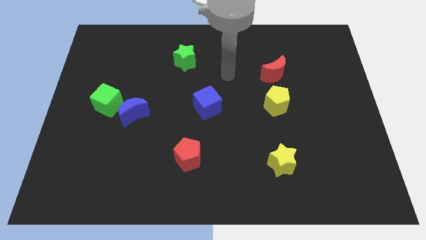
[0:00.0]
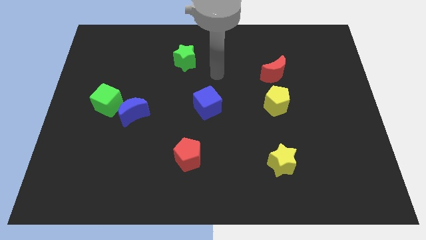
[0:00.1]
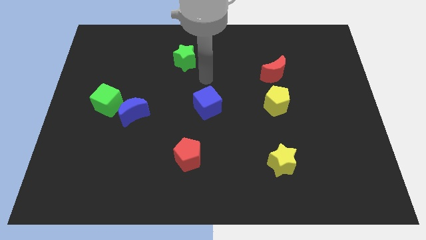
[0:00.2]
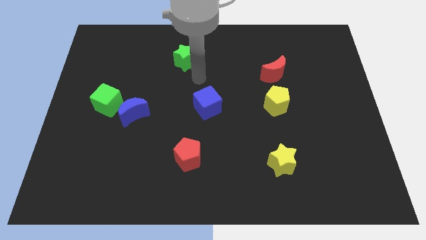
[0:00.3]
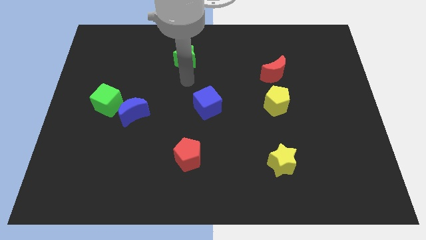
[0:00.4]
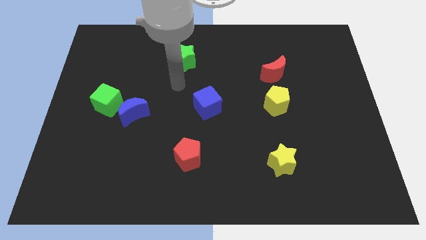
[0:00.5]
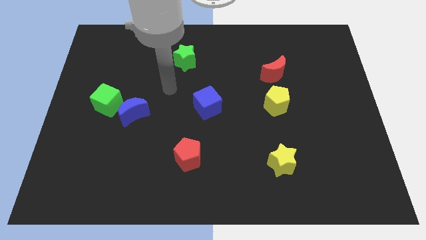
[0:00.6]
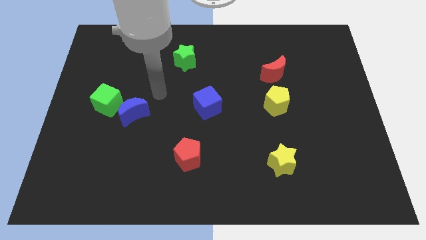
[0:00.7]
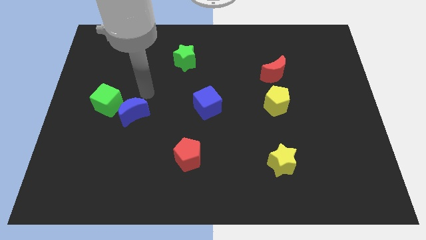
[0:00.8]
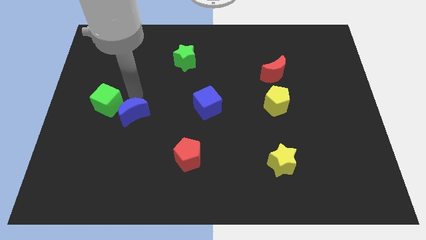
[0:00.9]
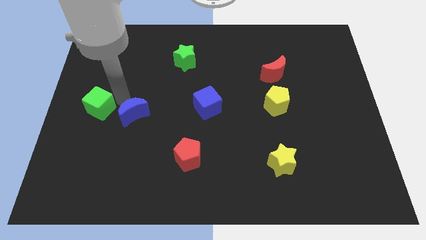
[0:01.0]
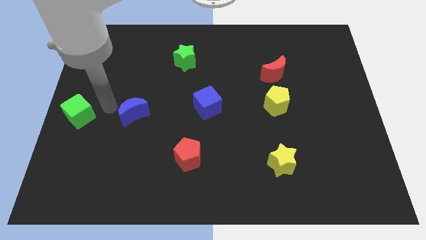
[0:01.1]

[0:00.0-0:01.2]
separate the blue moon from the green cube

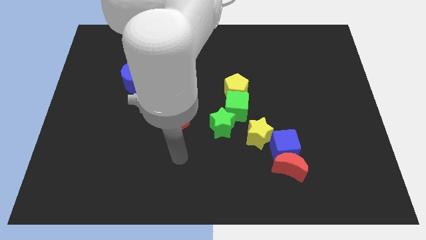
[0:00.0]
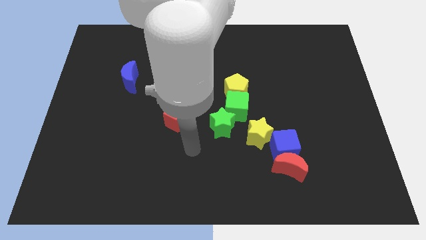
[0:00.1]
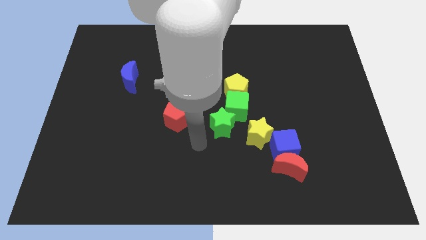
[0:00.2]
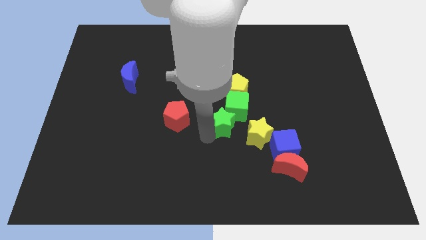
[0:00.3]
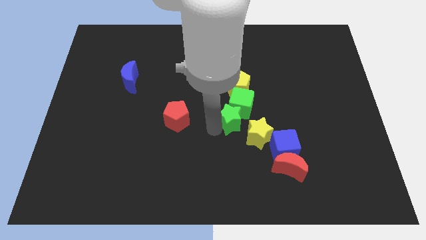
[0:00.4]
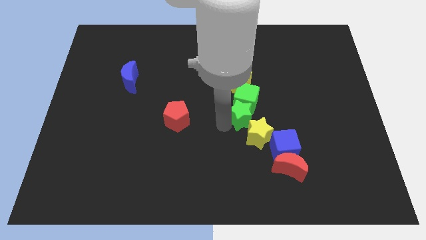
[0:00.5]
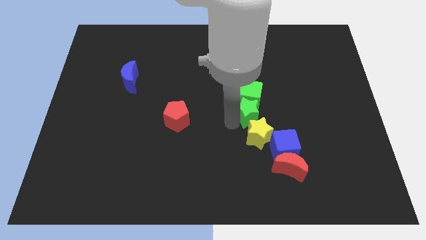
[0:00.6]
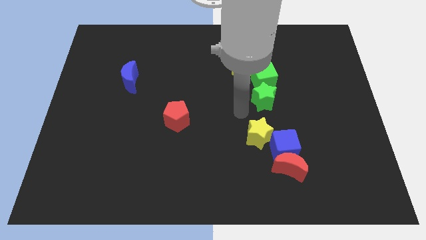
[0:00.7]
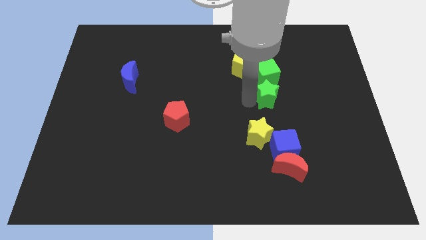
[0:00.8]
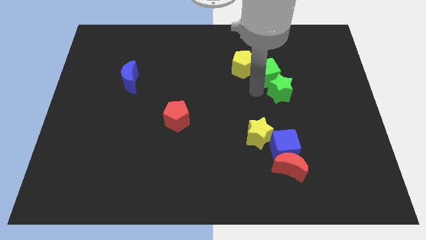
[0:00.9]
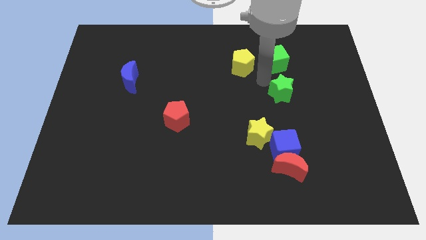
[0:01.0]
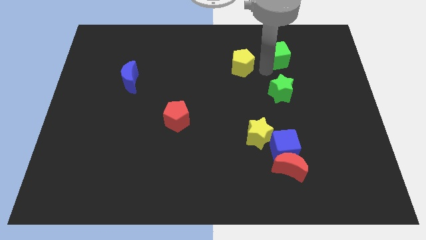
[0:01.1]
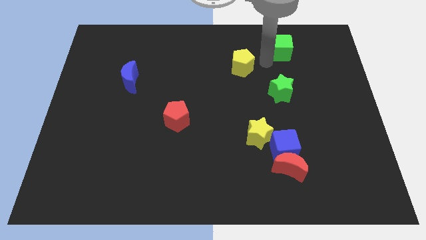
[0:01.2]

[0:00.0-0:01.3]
separate the yellow pentagon from the green cube

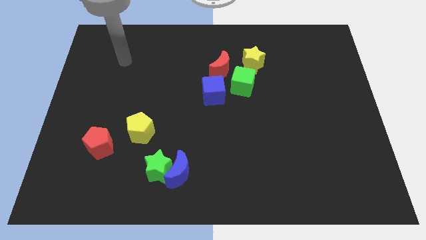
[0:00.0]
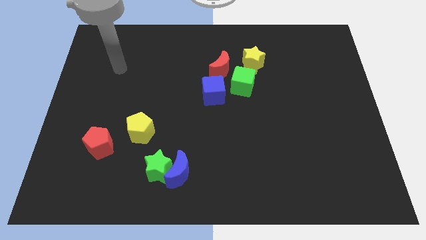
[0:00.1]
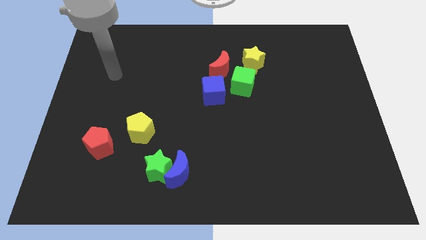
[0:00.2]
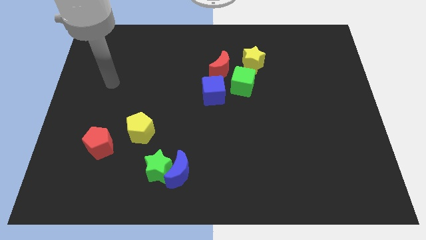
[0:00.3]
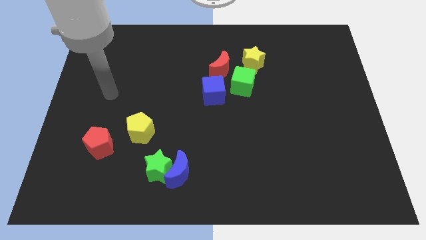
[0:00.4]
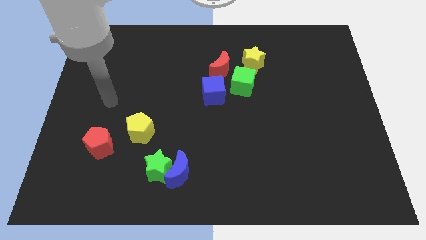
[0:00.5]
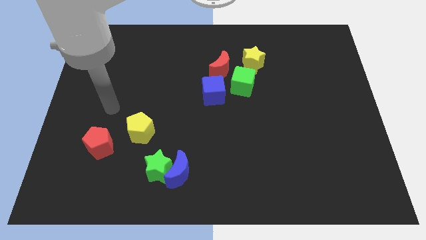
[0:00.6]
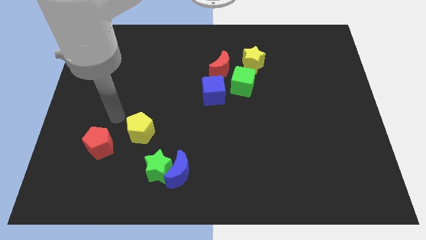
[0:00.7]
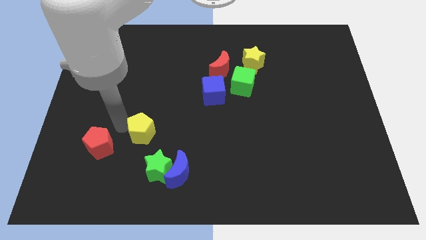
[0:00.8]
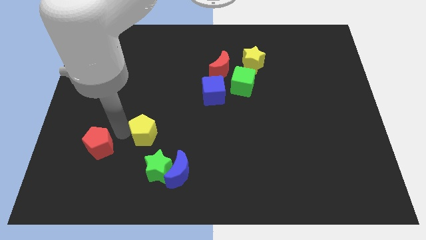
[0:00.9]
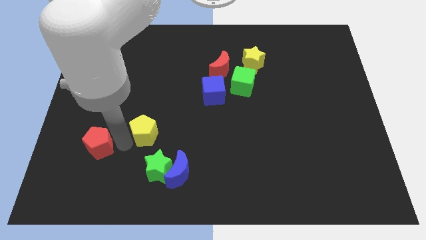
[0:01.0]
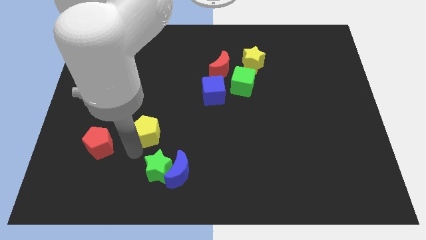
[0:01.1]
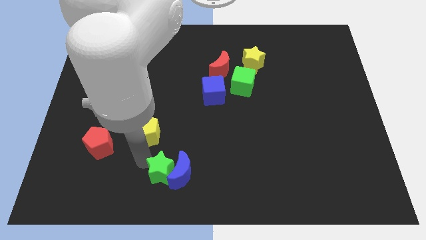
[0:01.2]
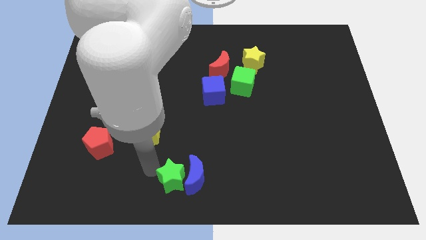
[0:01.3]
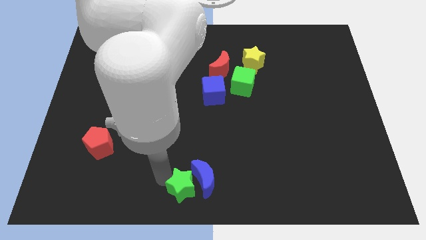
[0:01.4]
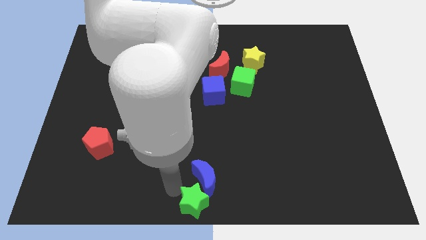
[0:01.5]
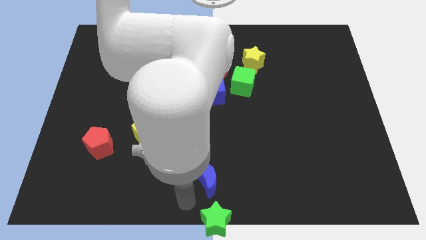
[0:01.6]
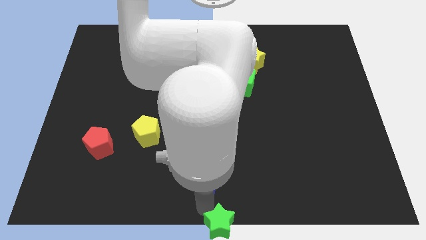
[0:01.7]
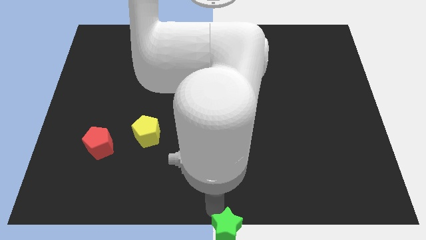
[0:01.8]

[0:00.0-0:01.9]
pull the blue moon apart from the green star

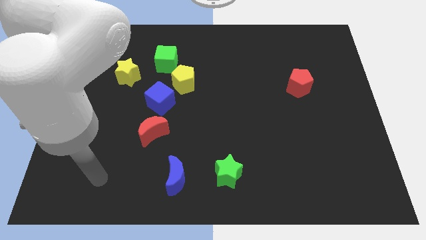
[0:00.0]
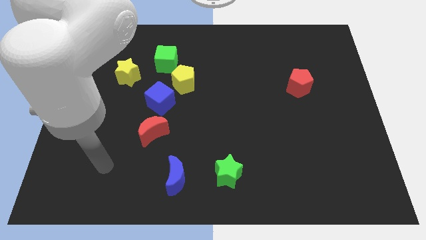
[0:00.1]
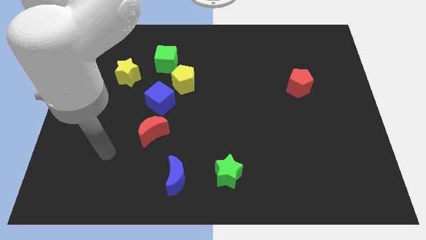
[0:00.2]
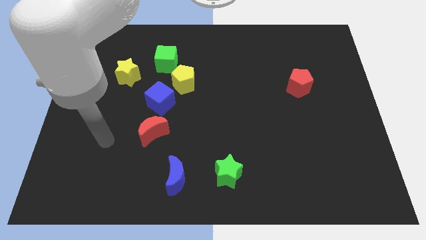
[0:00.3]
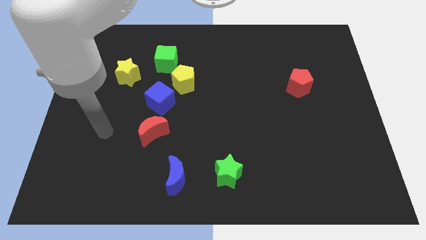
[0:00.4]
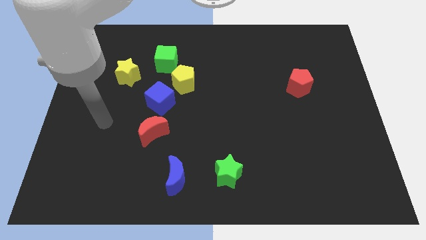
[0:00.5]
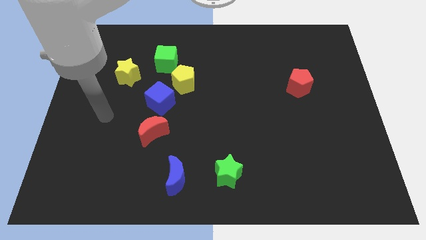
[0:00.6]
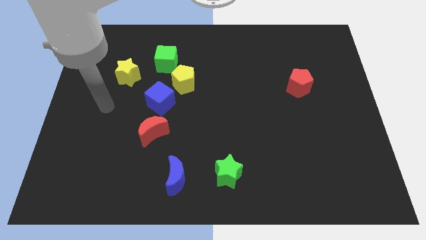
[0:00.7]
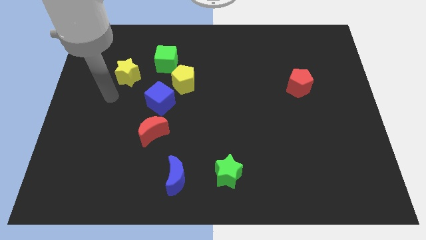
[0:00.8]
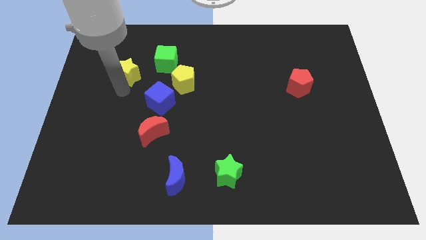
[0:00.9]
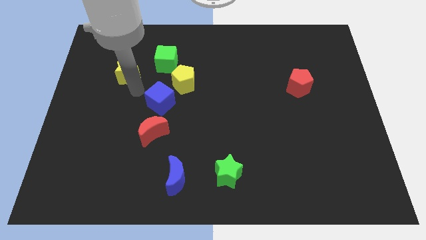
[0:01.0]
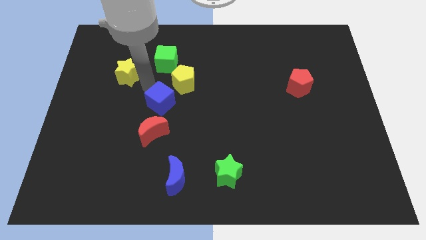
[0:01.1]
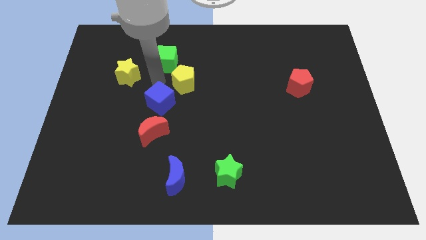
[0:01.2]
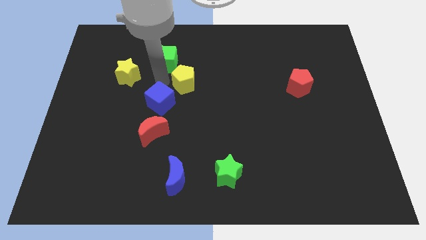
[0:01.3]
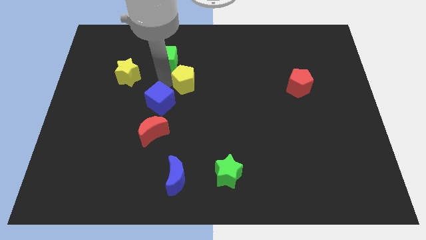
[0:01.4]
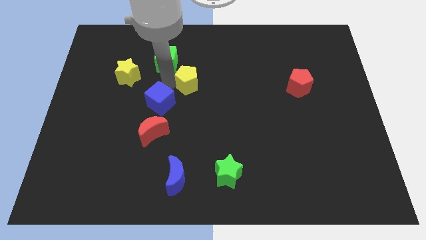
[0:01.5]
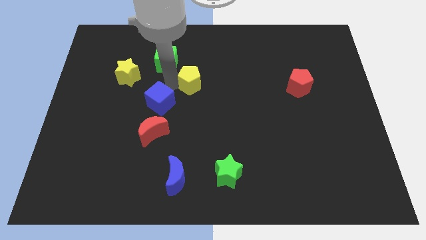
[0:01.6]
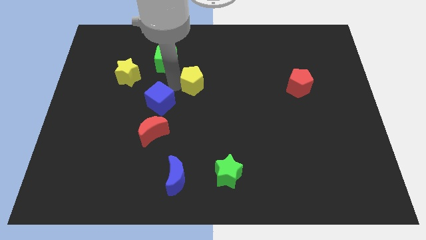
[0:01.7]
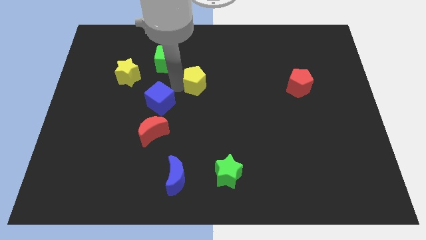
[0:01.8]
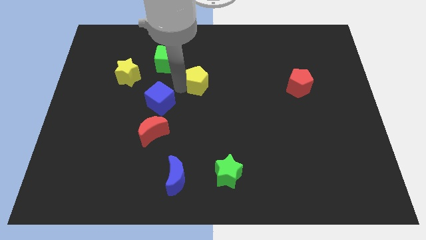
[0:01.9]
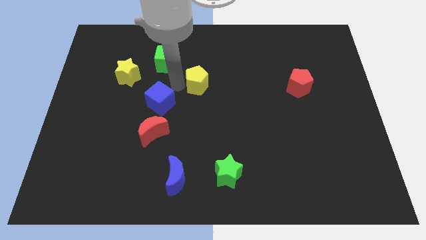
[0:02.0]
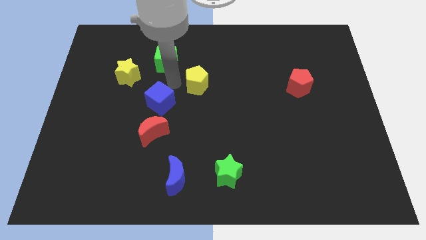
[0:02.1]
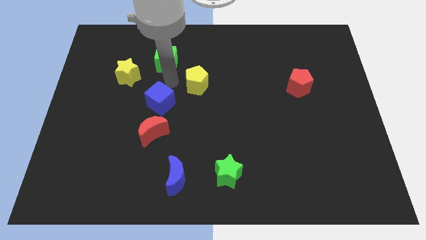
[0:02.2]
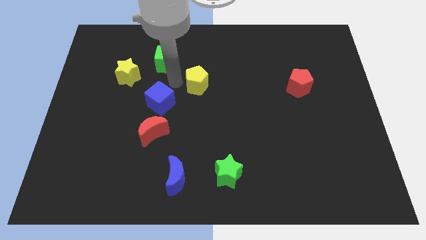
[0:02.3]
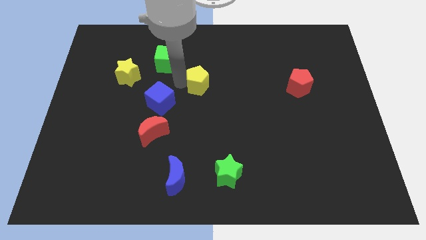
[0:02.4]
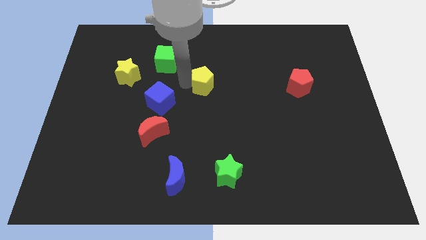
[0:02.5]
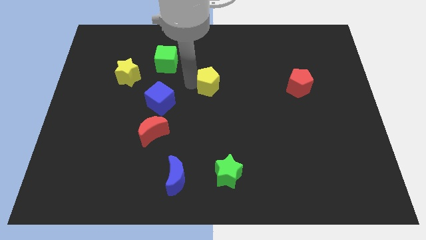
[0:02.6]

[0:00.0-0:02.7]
separate the yellow pentagon from the blue cube and green cube

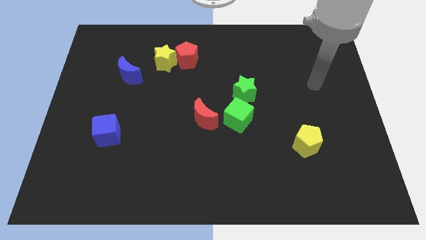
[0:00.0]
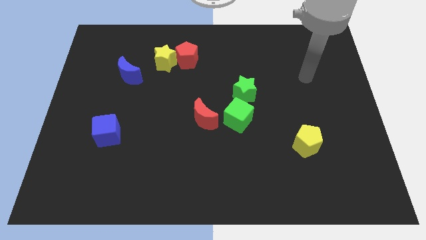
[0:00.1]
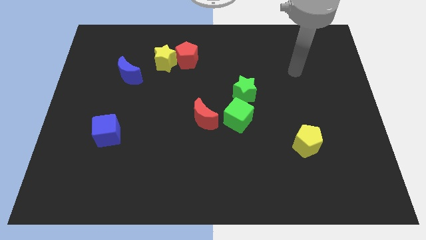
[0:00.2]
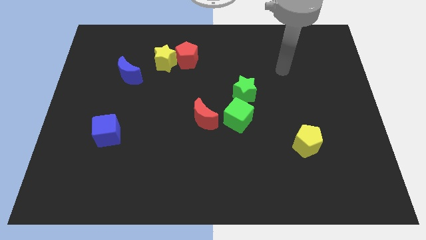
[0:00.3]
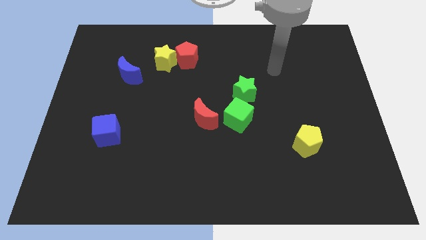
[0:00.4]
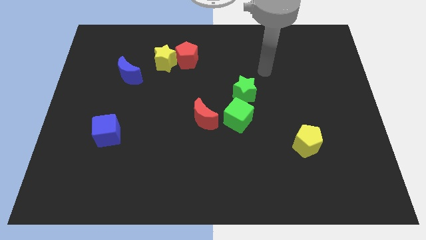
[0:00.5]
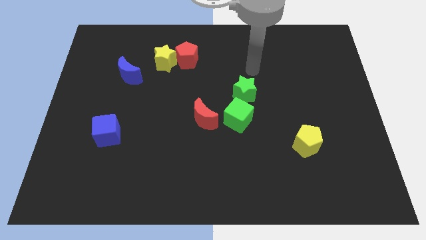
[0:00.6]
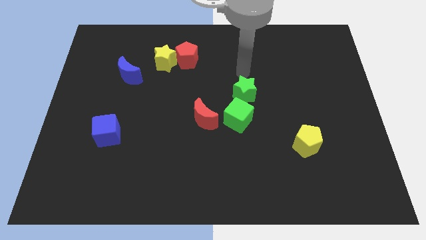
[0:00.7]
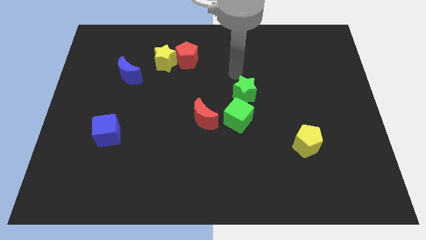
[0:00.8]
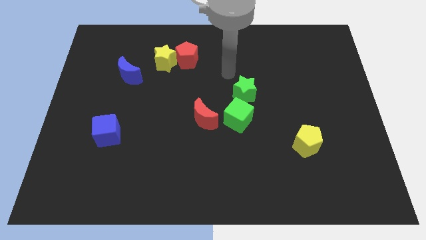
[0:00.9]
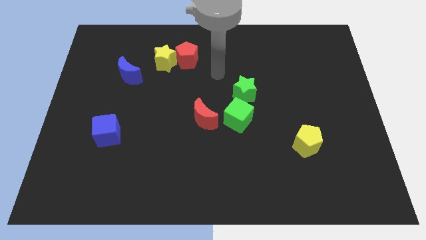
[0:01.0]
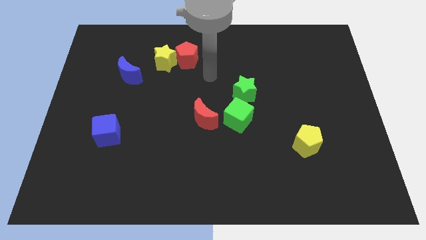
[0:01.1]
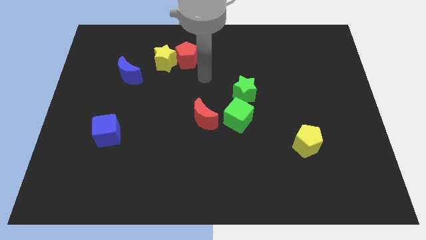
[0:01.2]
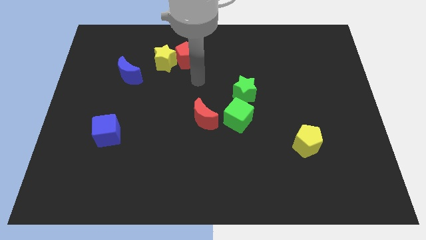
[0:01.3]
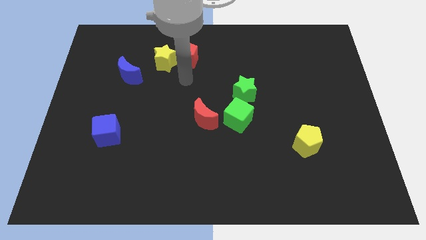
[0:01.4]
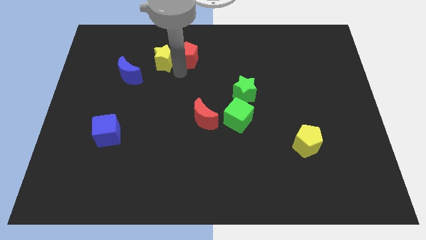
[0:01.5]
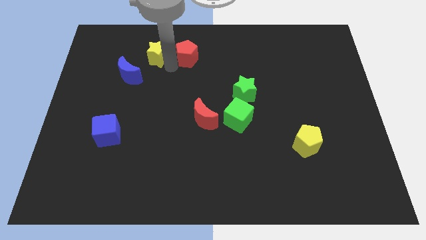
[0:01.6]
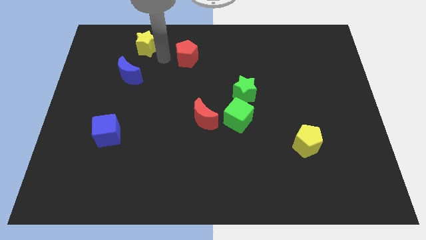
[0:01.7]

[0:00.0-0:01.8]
pull the red pentagon apart from the yellow star

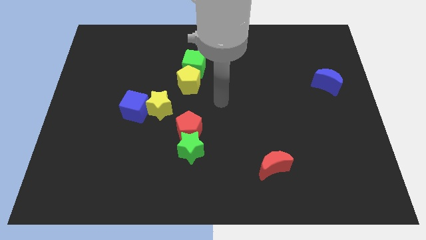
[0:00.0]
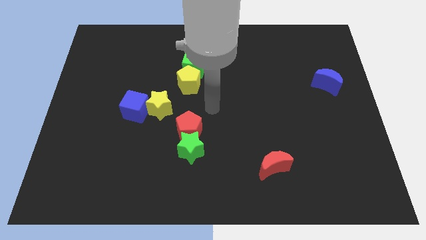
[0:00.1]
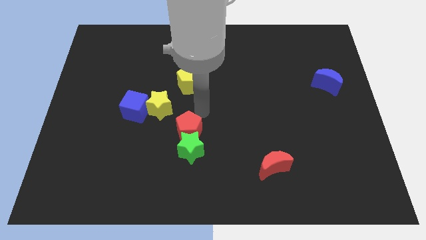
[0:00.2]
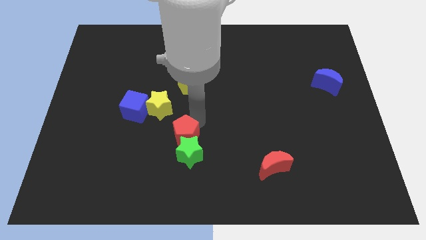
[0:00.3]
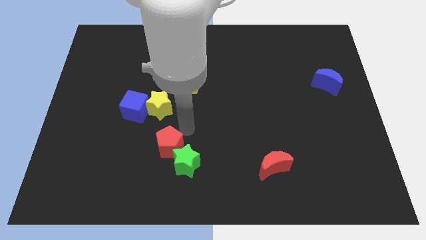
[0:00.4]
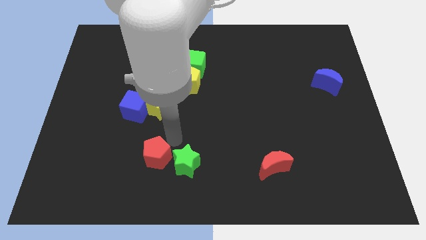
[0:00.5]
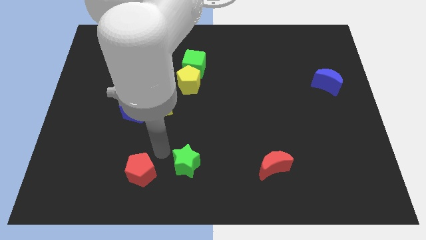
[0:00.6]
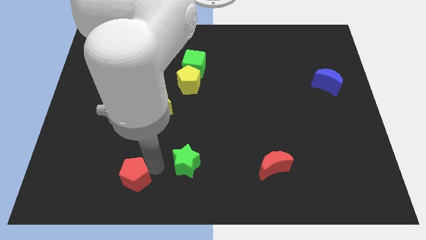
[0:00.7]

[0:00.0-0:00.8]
move the green star away from the red pentagon
